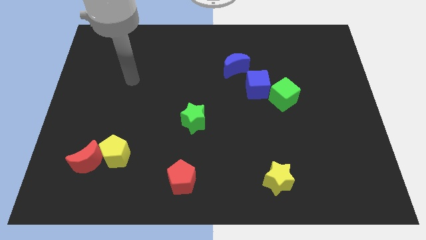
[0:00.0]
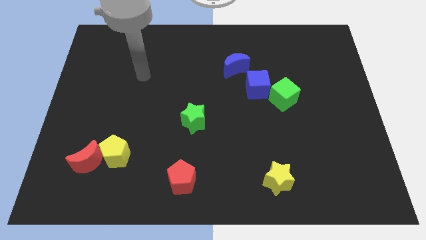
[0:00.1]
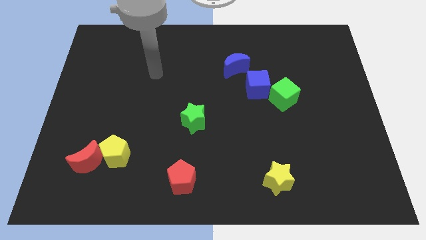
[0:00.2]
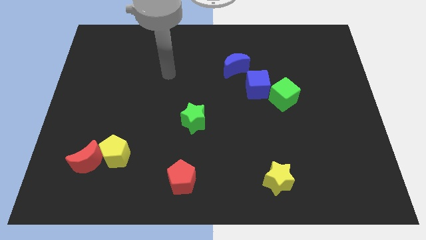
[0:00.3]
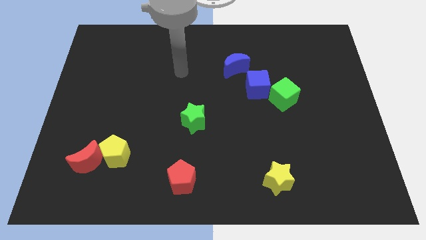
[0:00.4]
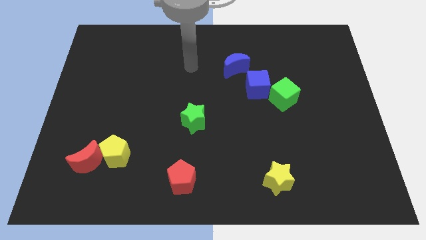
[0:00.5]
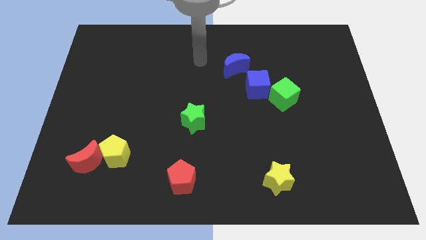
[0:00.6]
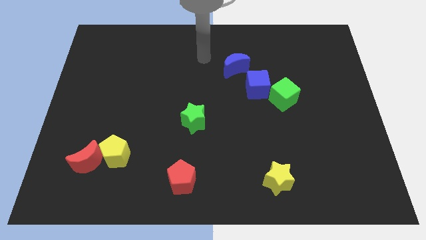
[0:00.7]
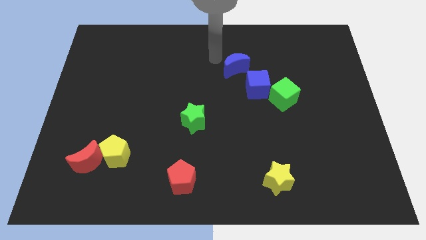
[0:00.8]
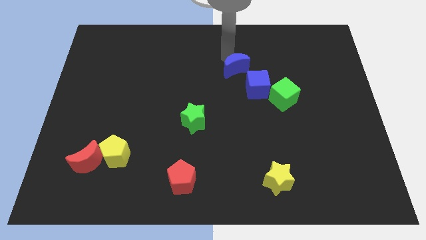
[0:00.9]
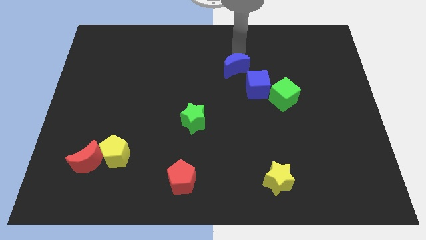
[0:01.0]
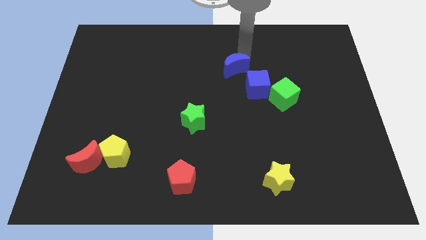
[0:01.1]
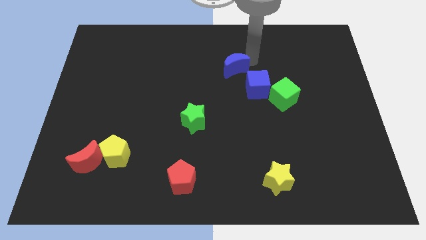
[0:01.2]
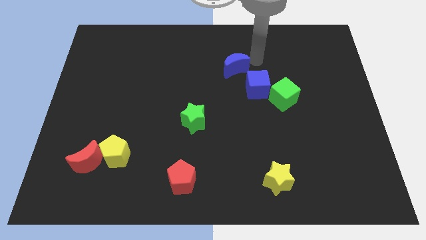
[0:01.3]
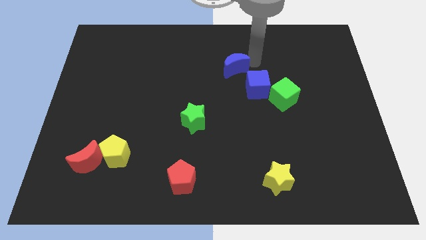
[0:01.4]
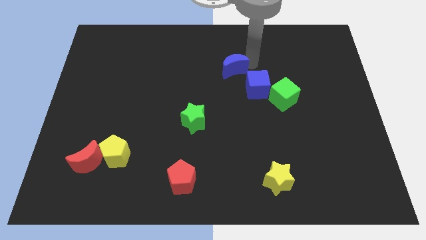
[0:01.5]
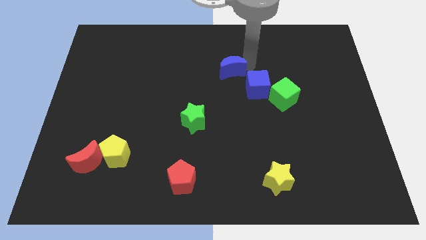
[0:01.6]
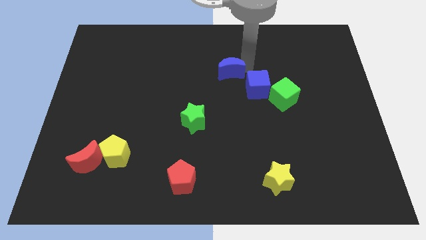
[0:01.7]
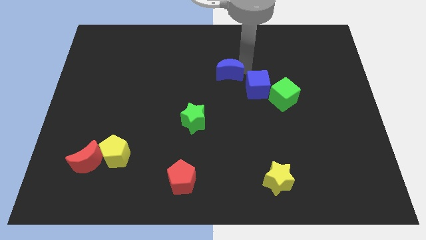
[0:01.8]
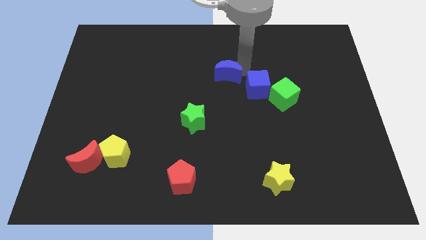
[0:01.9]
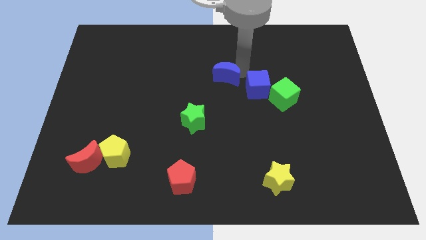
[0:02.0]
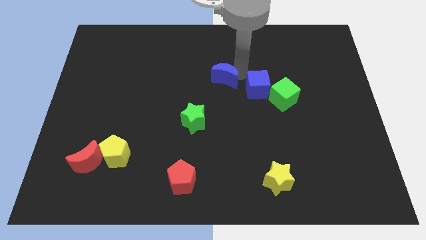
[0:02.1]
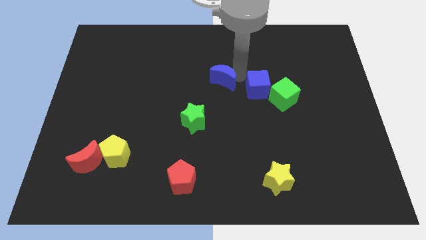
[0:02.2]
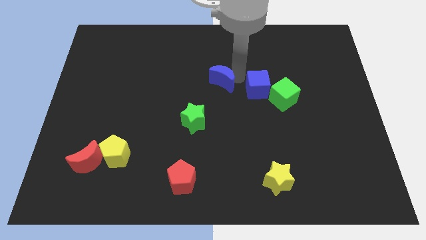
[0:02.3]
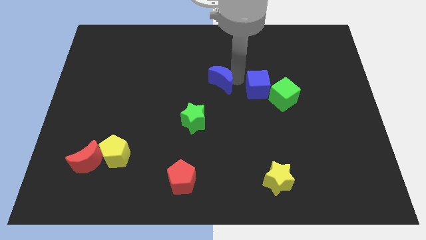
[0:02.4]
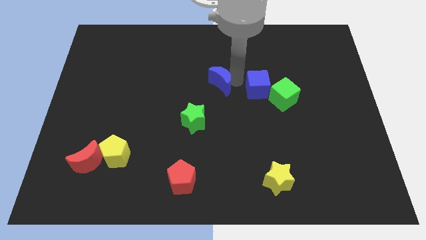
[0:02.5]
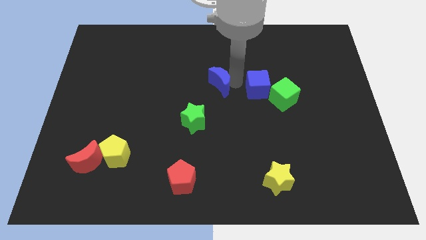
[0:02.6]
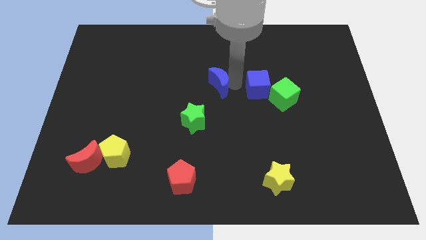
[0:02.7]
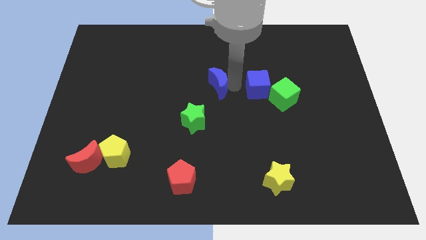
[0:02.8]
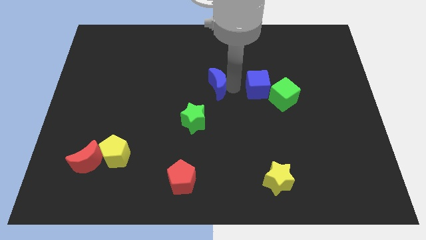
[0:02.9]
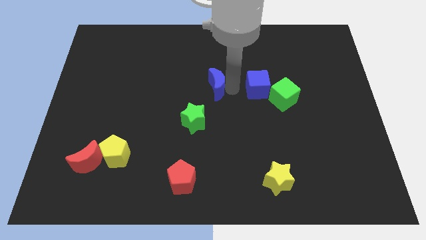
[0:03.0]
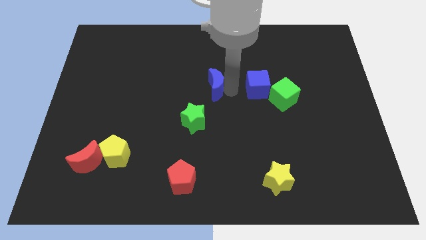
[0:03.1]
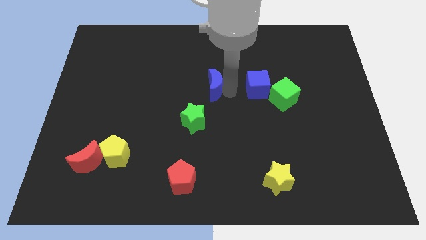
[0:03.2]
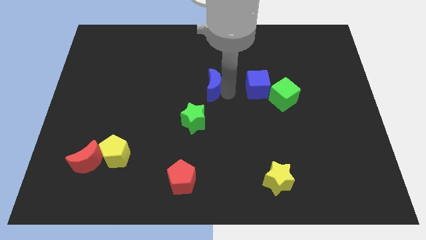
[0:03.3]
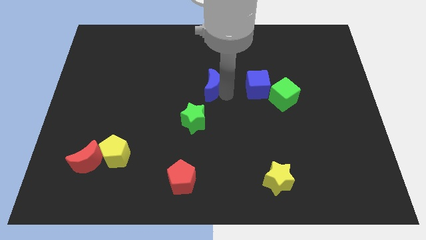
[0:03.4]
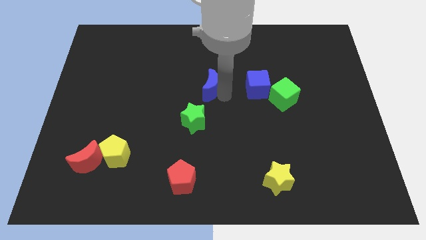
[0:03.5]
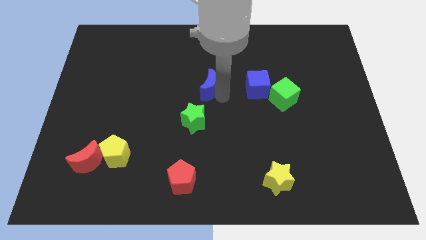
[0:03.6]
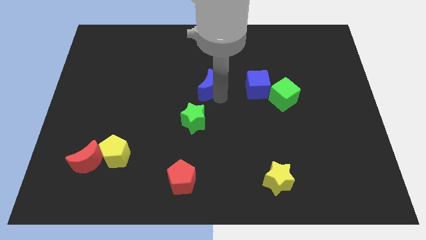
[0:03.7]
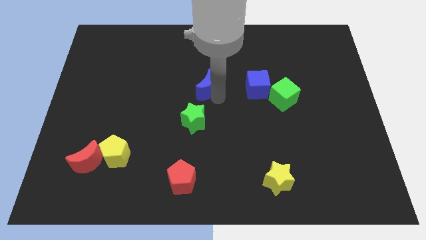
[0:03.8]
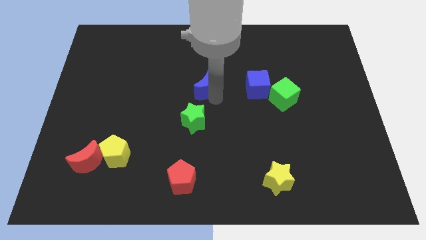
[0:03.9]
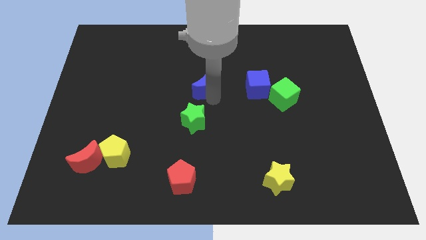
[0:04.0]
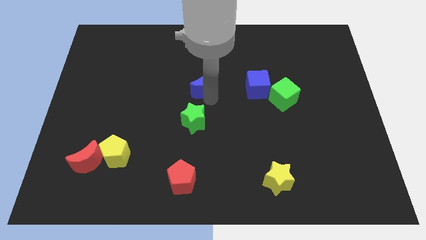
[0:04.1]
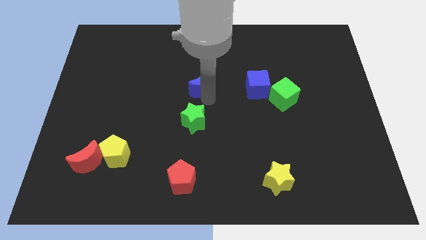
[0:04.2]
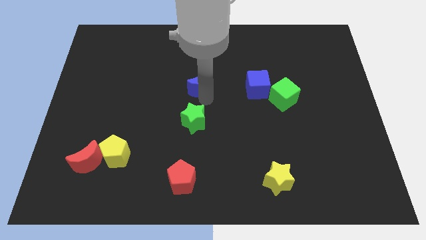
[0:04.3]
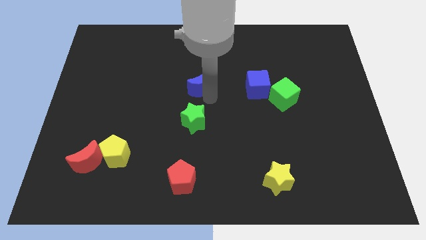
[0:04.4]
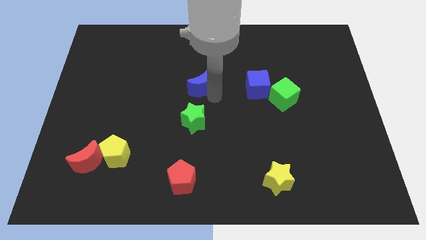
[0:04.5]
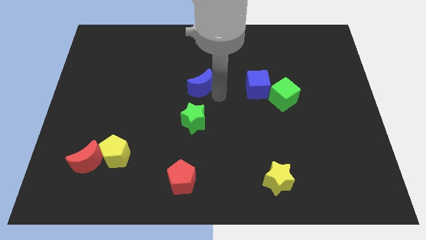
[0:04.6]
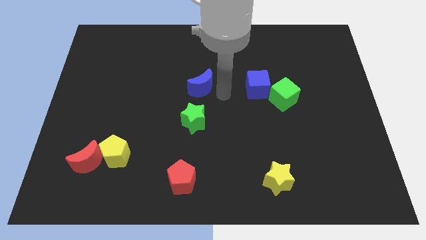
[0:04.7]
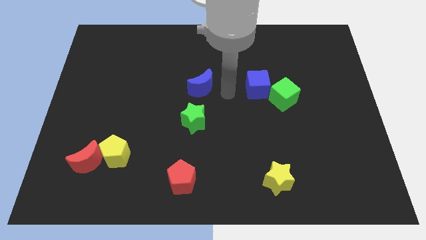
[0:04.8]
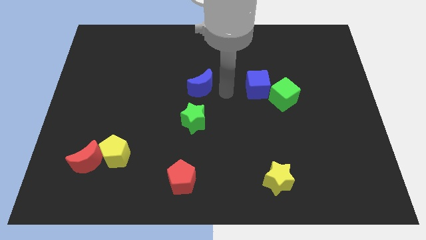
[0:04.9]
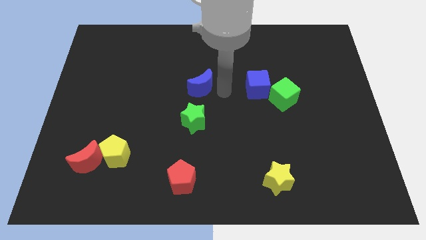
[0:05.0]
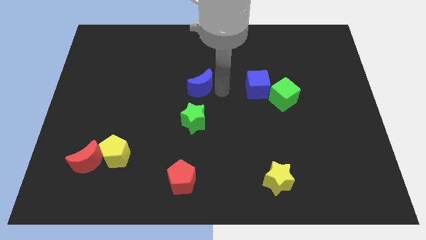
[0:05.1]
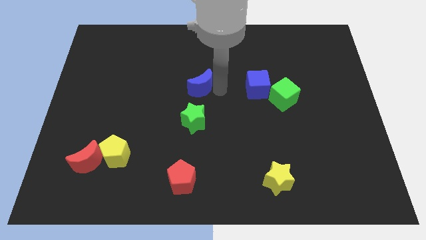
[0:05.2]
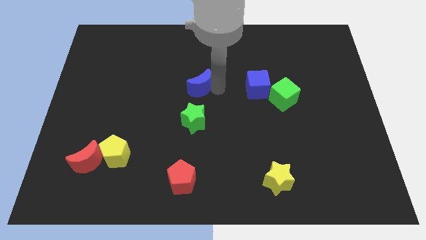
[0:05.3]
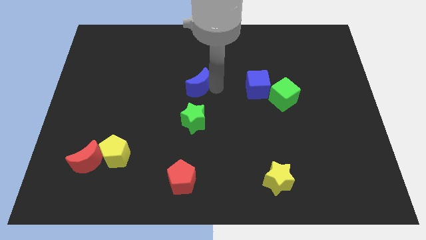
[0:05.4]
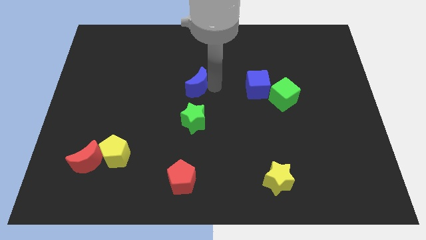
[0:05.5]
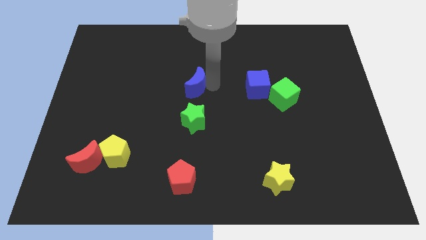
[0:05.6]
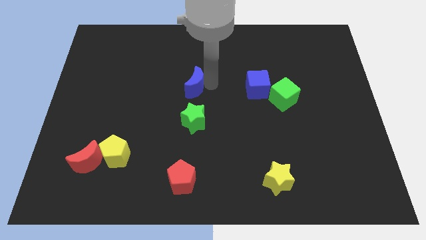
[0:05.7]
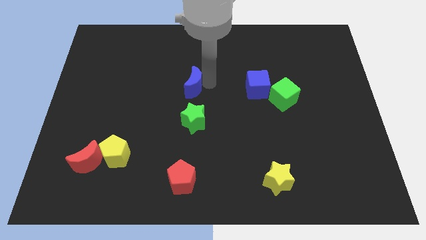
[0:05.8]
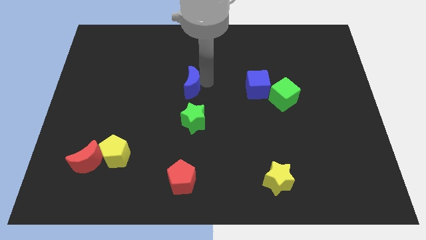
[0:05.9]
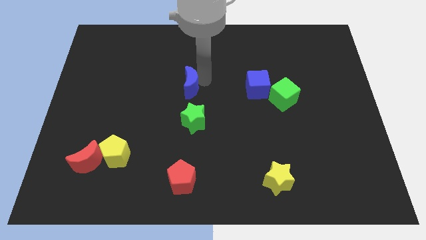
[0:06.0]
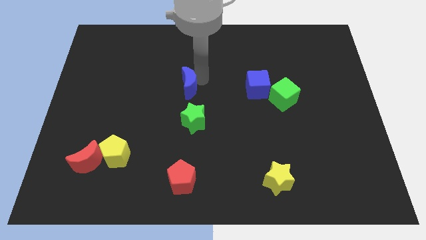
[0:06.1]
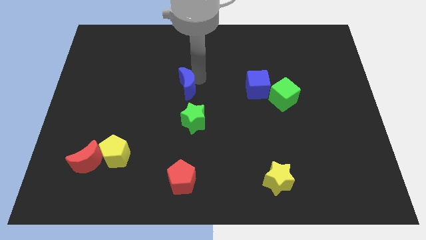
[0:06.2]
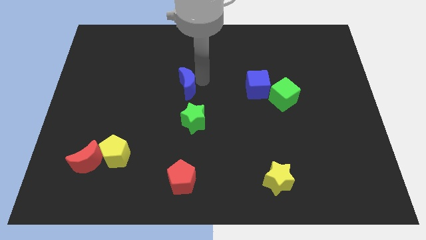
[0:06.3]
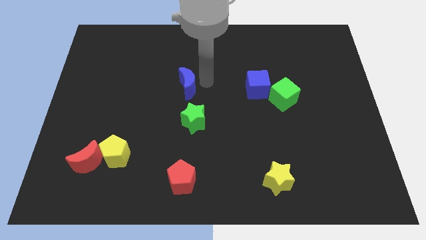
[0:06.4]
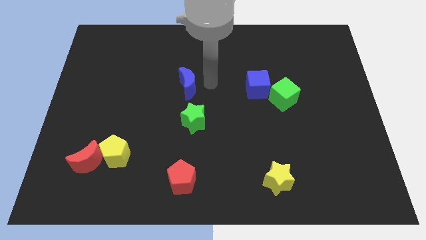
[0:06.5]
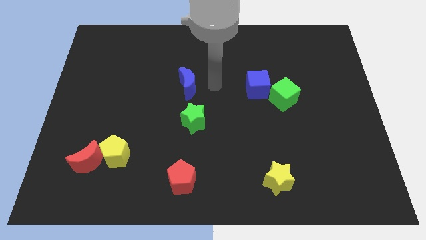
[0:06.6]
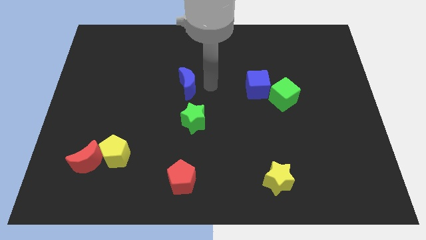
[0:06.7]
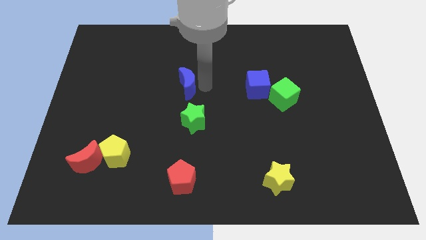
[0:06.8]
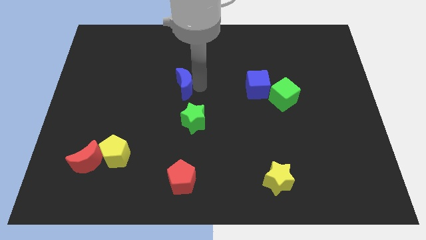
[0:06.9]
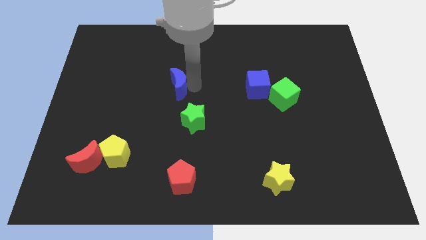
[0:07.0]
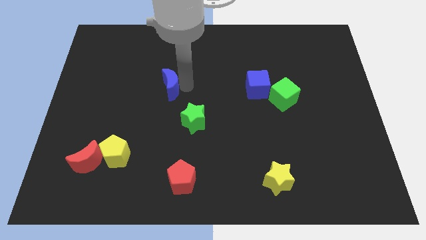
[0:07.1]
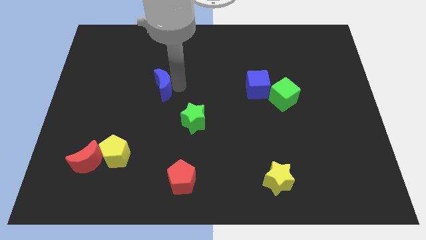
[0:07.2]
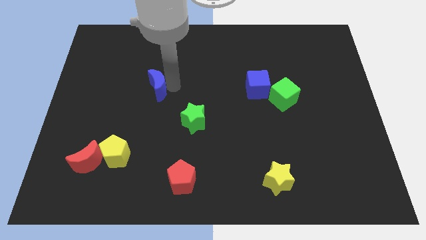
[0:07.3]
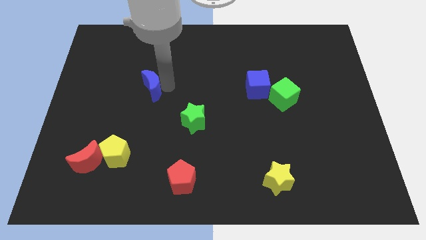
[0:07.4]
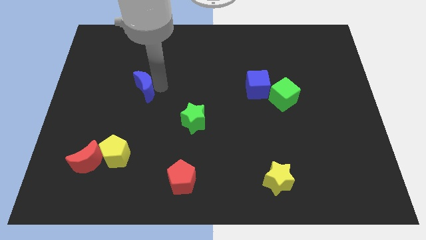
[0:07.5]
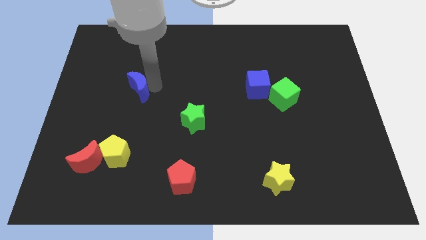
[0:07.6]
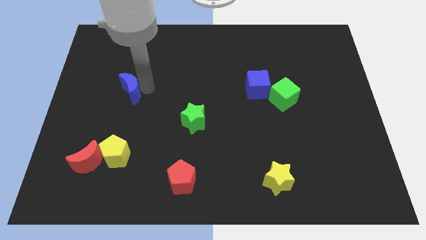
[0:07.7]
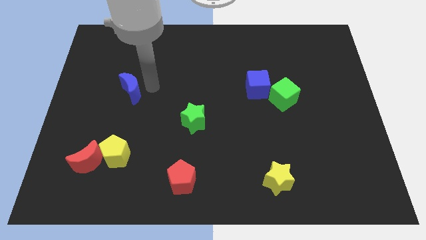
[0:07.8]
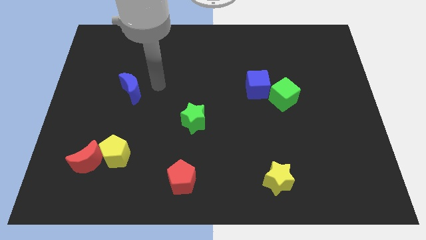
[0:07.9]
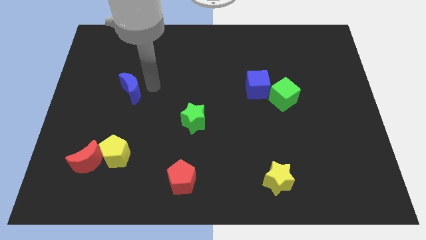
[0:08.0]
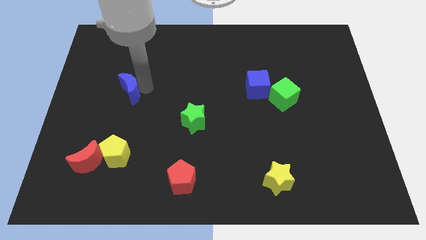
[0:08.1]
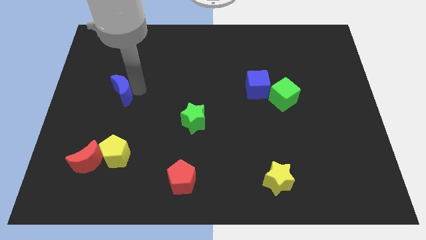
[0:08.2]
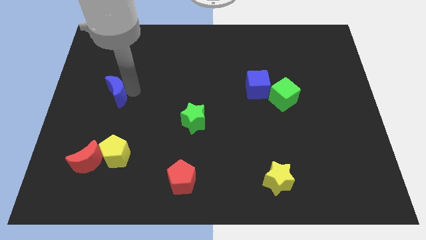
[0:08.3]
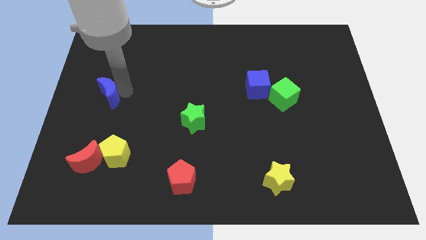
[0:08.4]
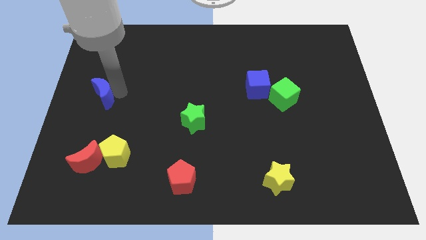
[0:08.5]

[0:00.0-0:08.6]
move the blue moon to the left side of the board
